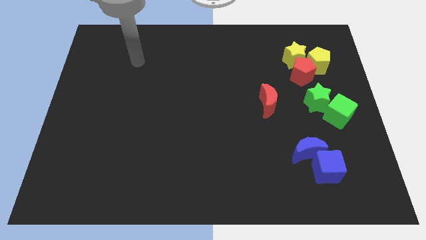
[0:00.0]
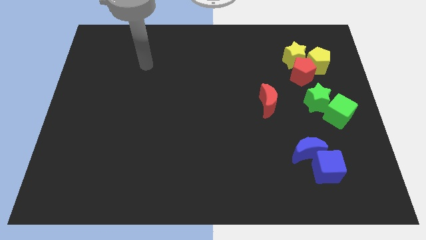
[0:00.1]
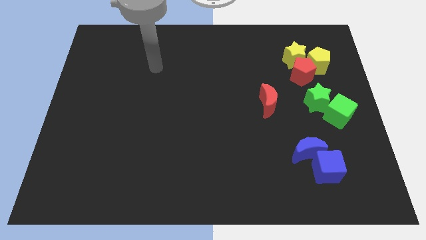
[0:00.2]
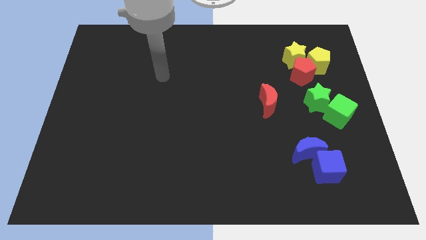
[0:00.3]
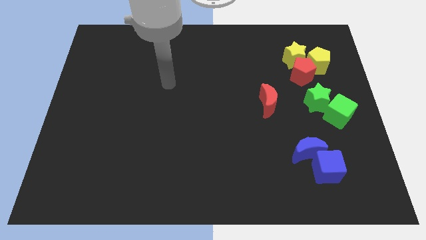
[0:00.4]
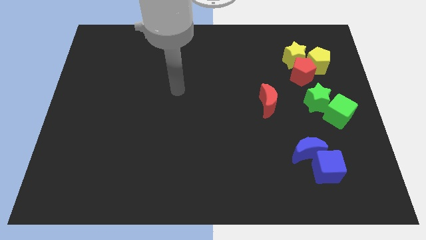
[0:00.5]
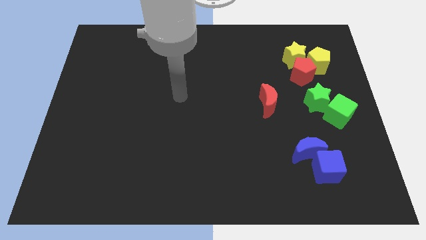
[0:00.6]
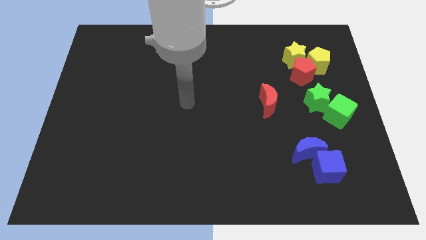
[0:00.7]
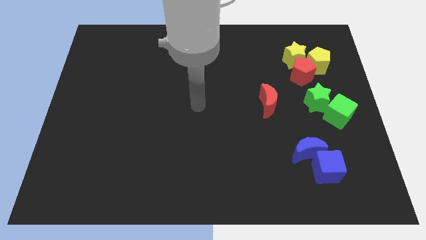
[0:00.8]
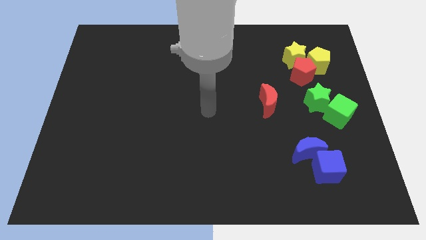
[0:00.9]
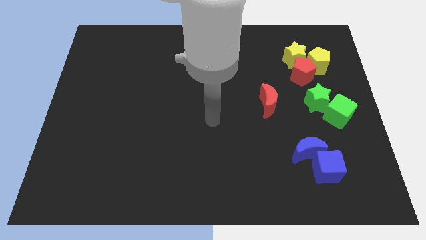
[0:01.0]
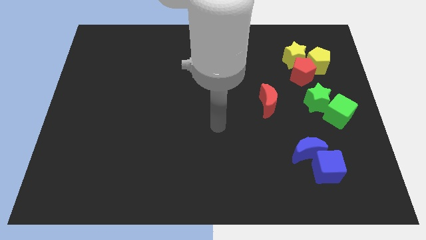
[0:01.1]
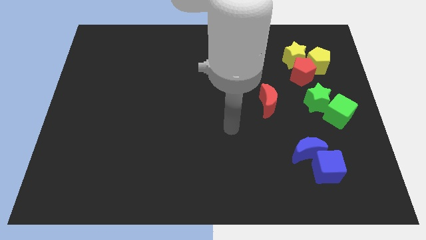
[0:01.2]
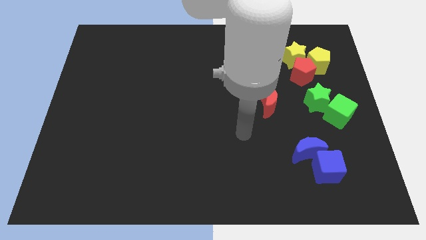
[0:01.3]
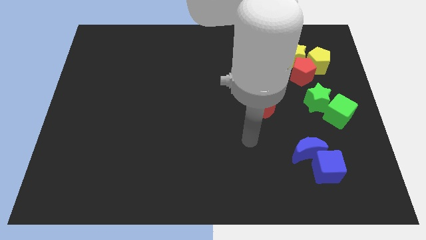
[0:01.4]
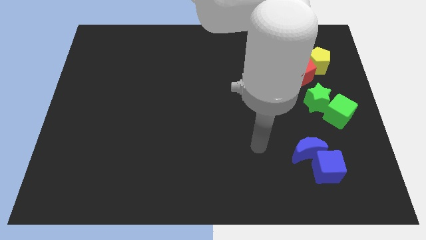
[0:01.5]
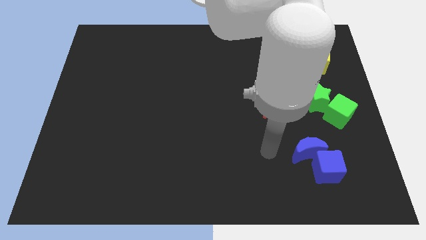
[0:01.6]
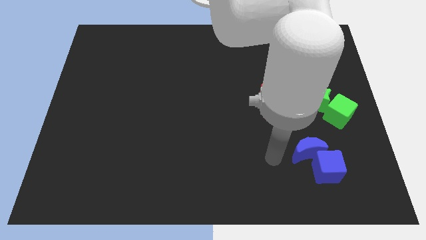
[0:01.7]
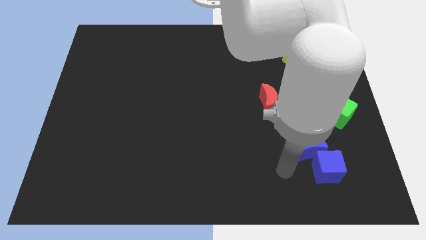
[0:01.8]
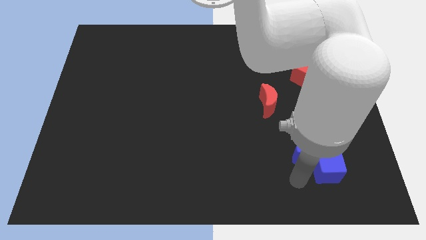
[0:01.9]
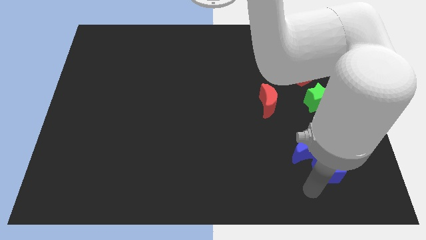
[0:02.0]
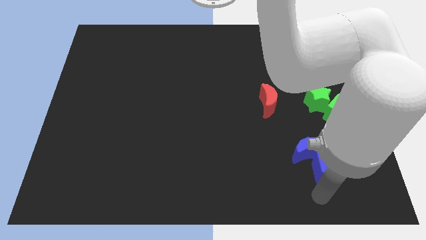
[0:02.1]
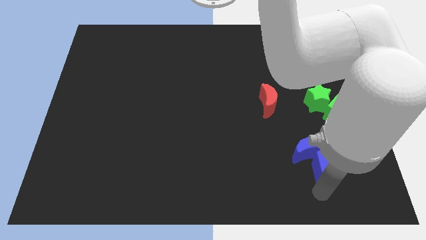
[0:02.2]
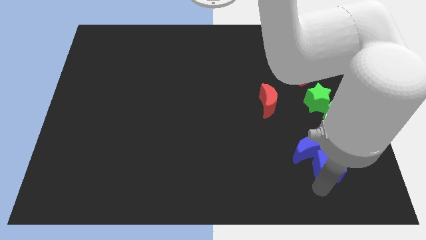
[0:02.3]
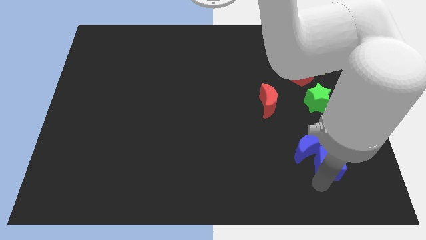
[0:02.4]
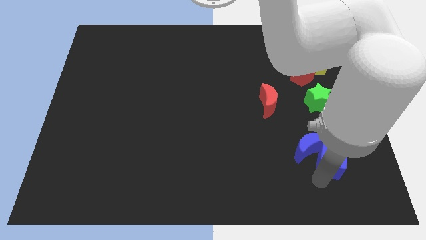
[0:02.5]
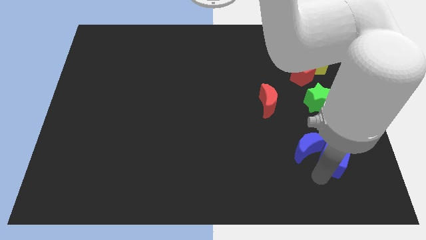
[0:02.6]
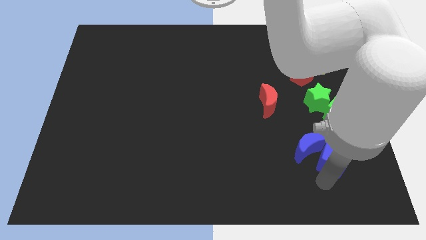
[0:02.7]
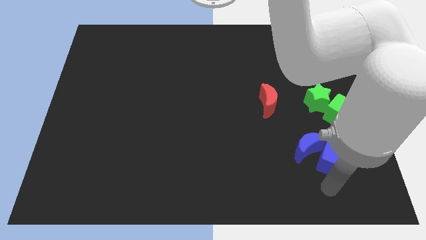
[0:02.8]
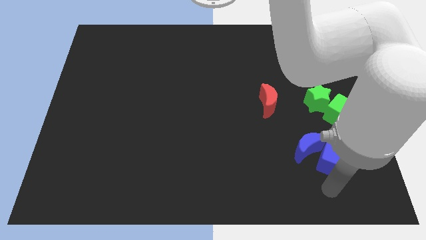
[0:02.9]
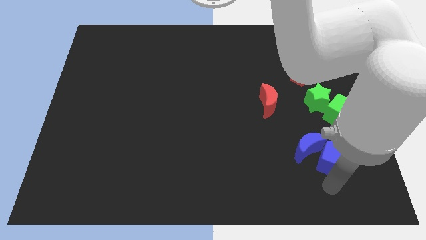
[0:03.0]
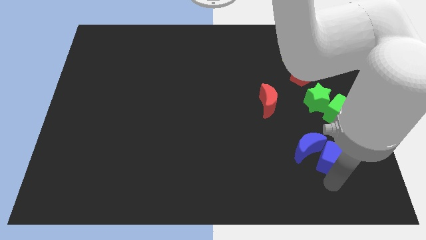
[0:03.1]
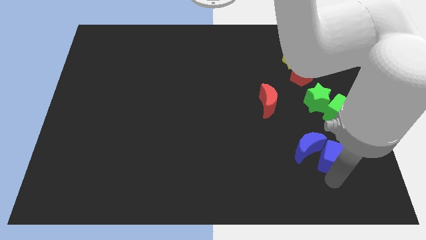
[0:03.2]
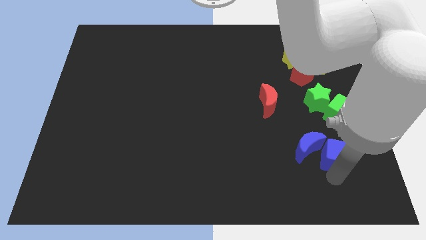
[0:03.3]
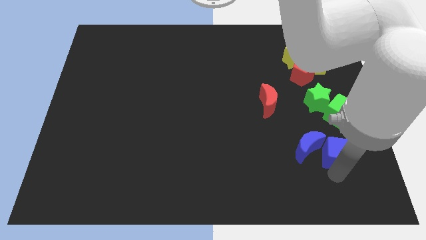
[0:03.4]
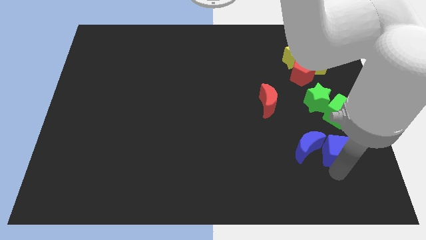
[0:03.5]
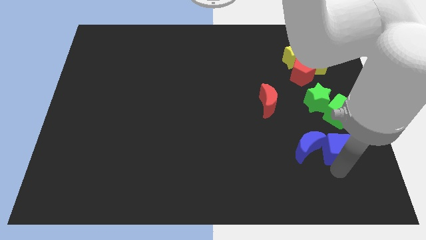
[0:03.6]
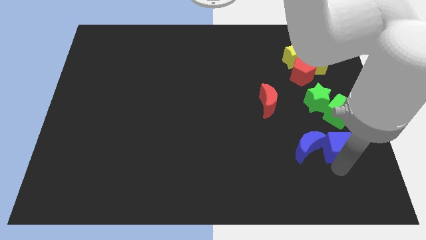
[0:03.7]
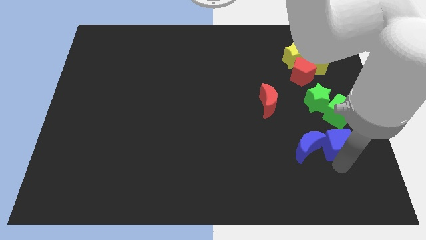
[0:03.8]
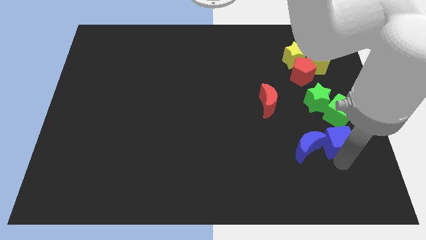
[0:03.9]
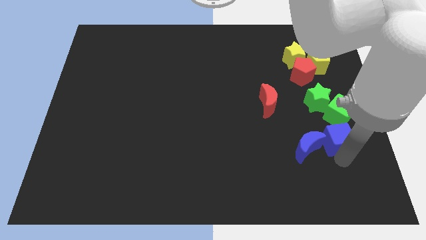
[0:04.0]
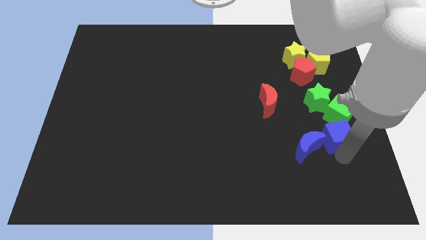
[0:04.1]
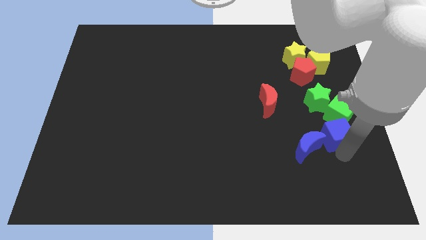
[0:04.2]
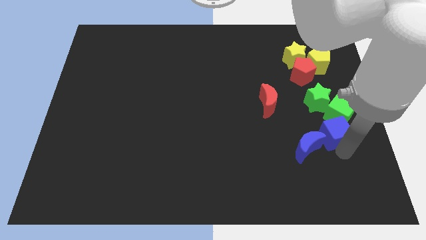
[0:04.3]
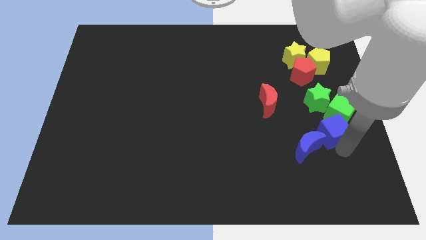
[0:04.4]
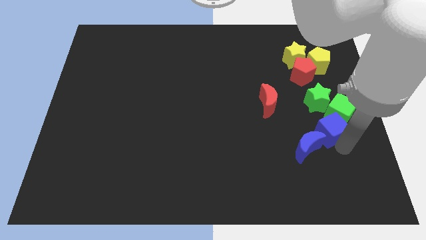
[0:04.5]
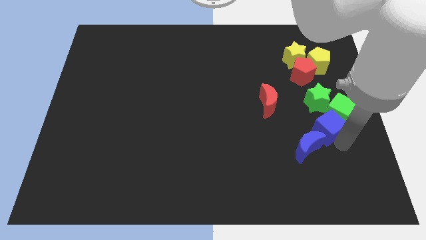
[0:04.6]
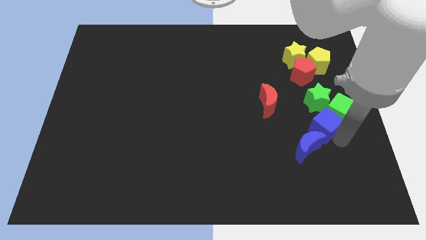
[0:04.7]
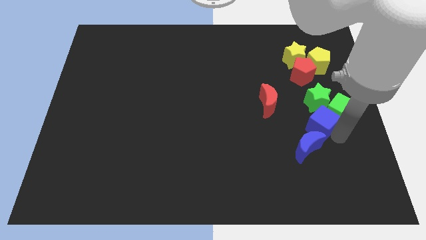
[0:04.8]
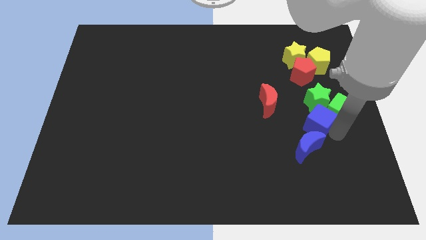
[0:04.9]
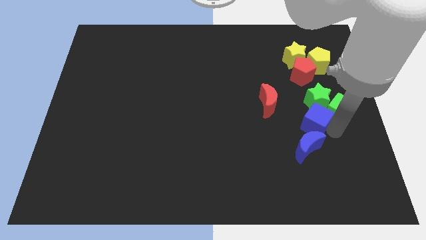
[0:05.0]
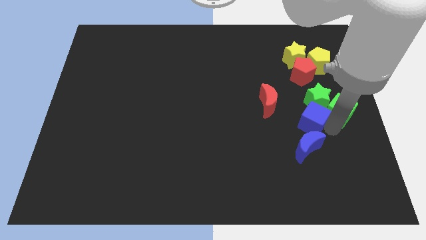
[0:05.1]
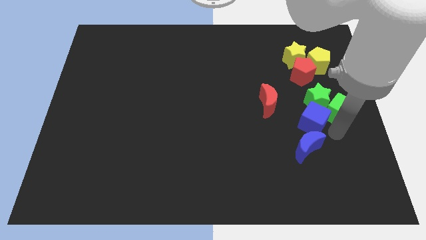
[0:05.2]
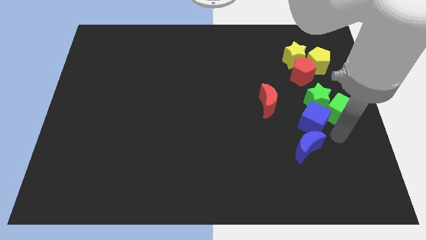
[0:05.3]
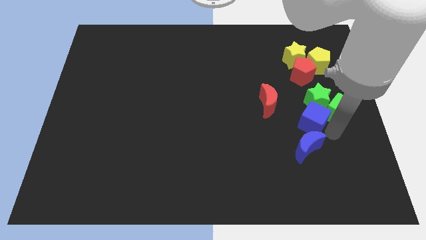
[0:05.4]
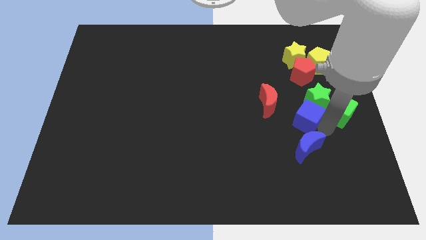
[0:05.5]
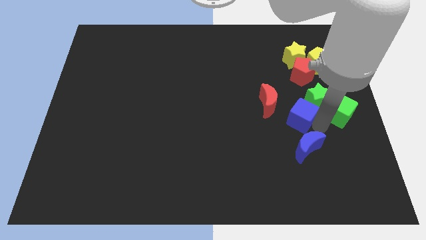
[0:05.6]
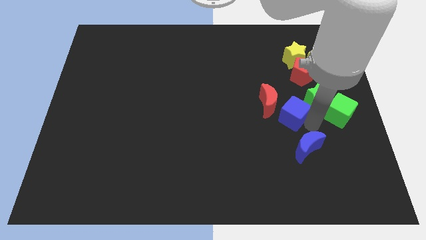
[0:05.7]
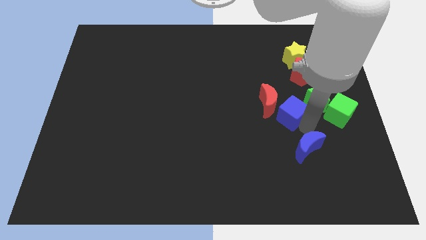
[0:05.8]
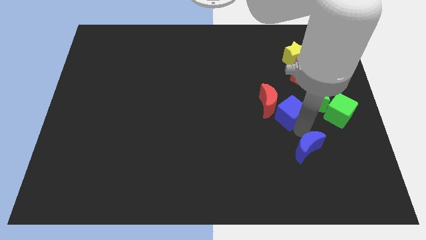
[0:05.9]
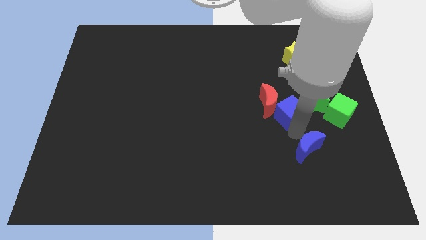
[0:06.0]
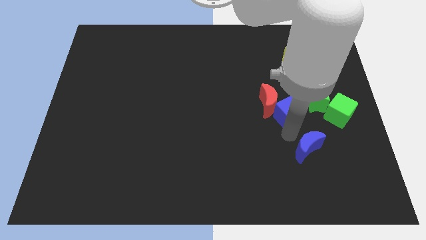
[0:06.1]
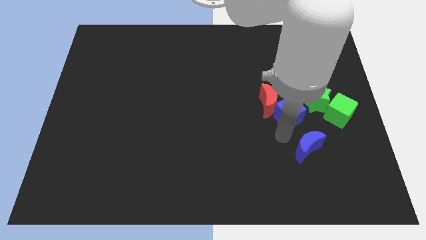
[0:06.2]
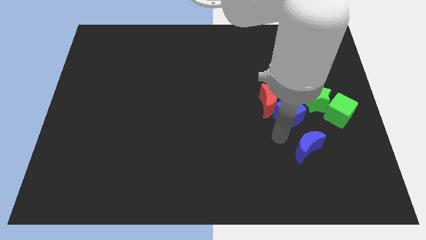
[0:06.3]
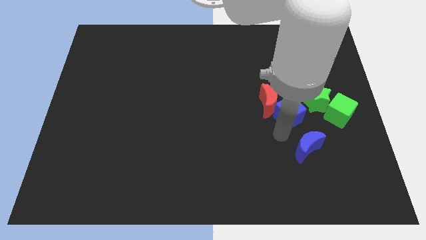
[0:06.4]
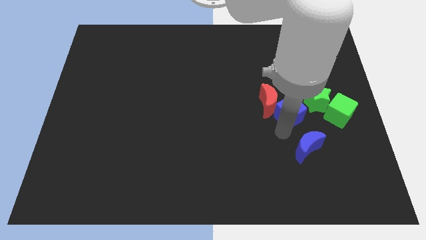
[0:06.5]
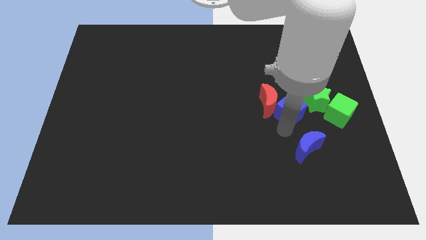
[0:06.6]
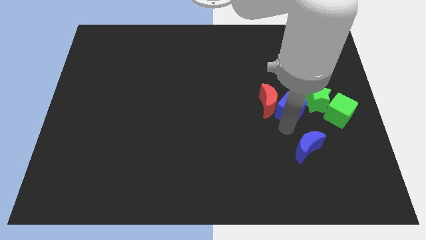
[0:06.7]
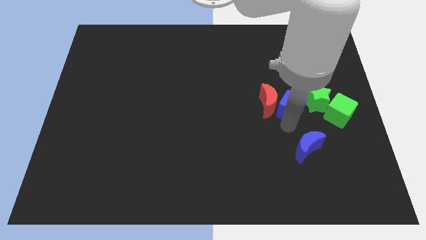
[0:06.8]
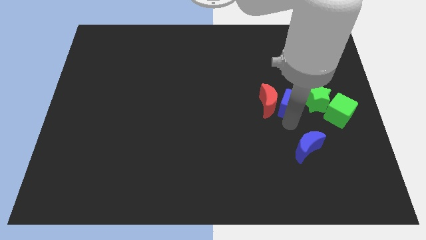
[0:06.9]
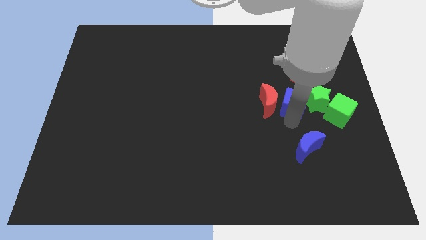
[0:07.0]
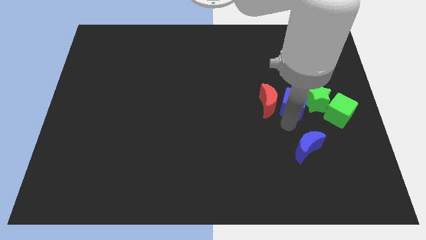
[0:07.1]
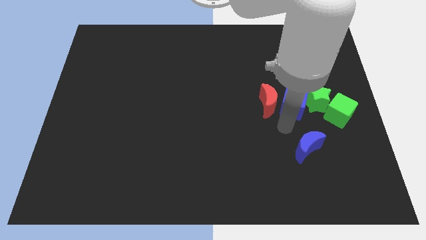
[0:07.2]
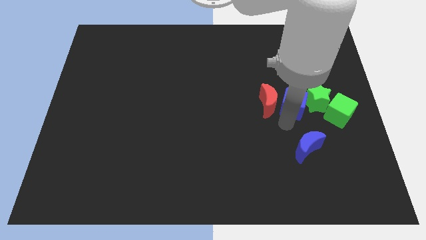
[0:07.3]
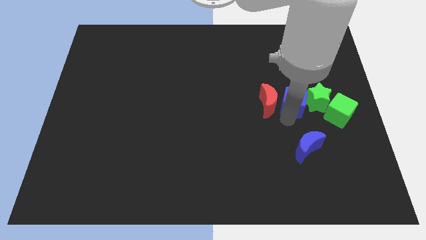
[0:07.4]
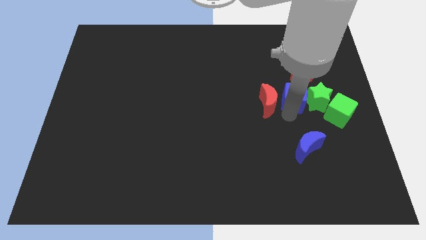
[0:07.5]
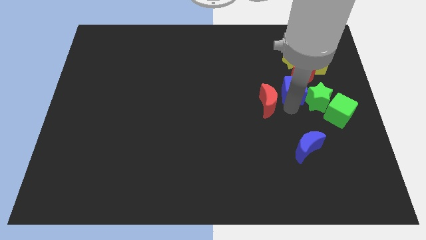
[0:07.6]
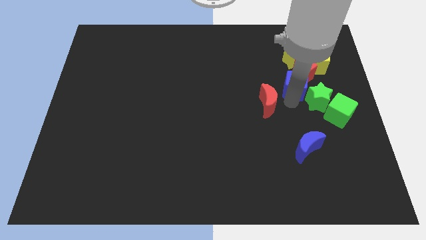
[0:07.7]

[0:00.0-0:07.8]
slide the blue cube towards the red pentagon
